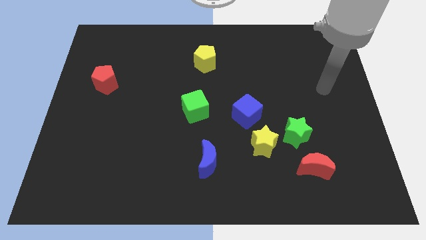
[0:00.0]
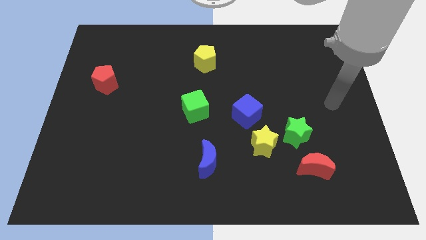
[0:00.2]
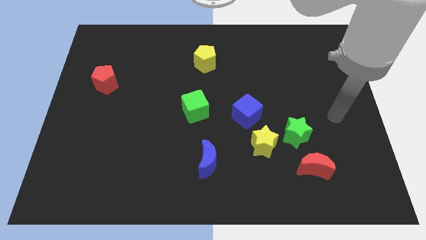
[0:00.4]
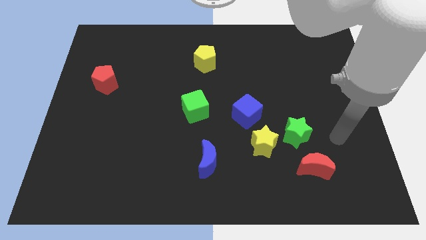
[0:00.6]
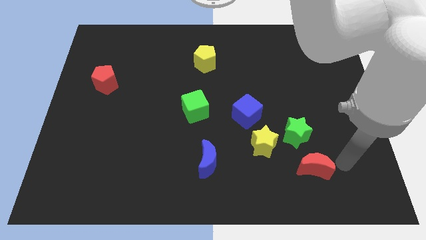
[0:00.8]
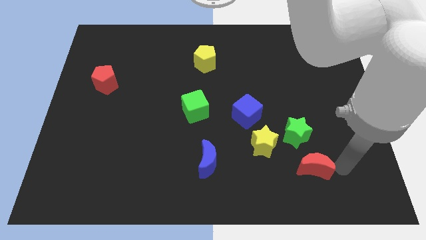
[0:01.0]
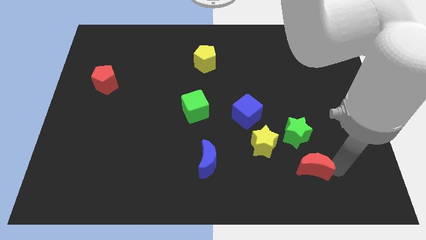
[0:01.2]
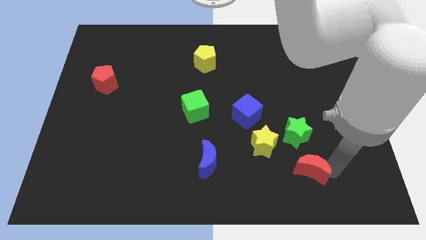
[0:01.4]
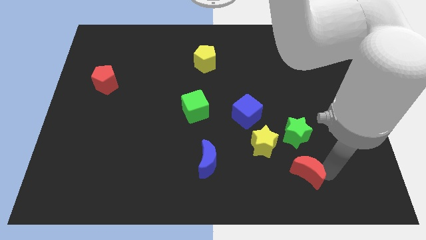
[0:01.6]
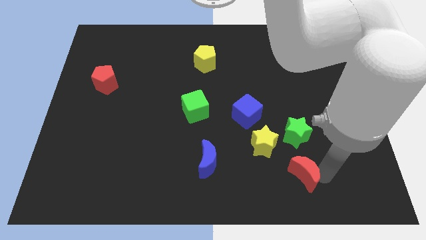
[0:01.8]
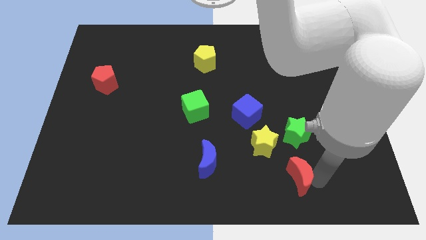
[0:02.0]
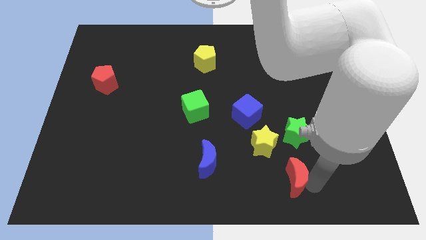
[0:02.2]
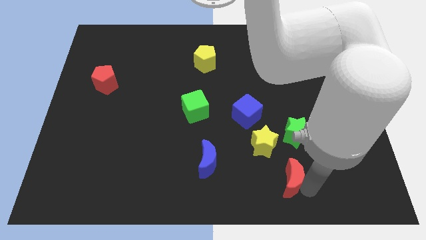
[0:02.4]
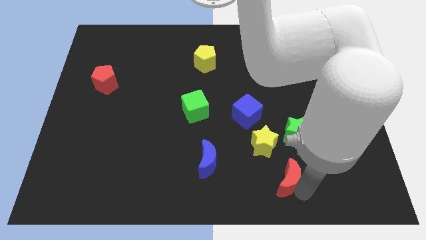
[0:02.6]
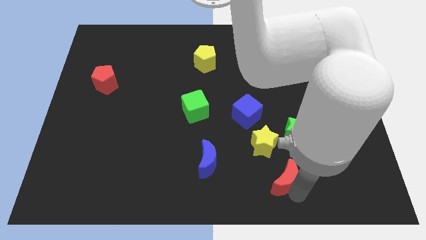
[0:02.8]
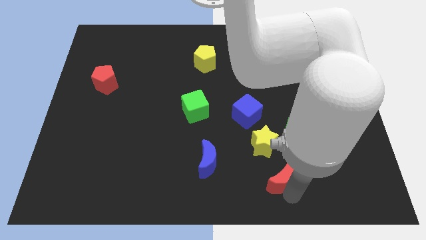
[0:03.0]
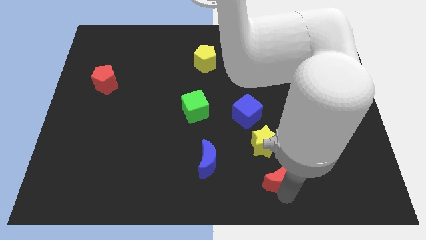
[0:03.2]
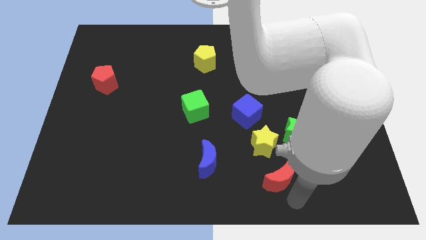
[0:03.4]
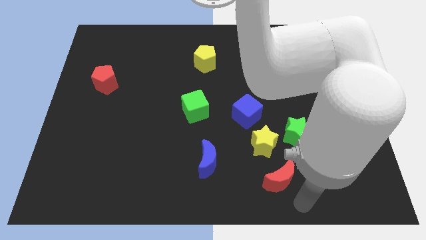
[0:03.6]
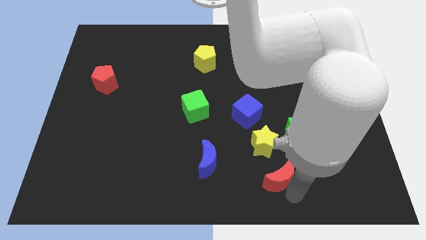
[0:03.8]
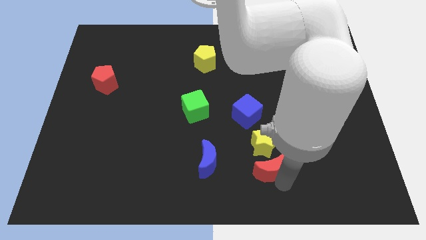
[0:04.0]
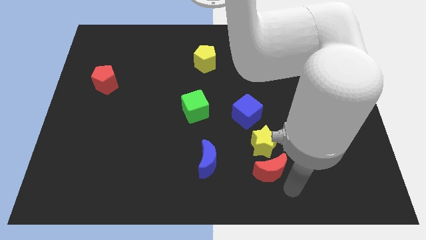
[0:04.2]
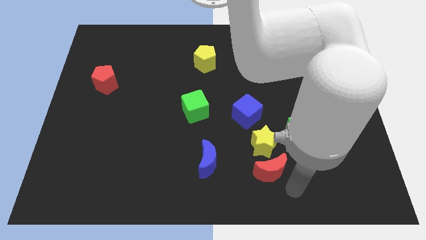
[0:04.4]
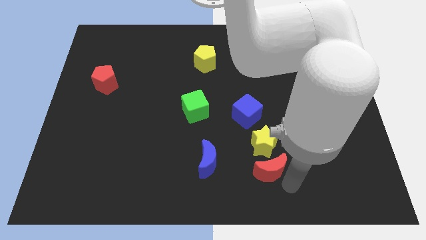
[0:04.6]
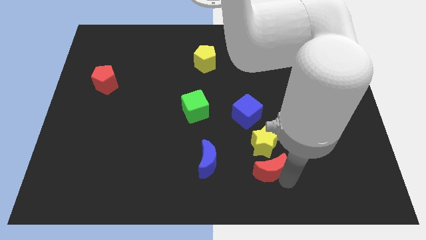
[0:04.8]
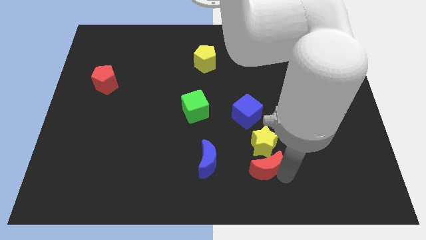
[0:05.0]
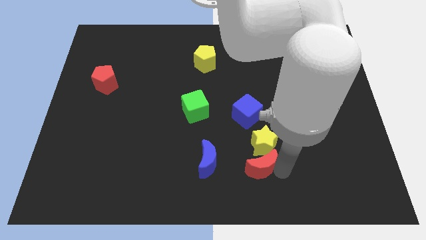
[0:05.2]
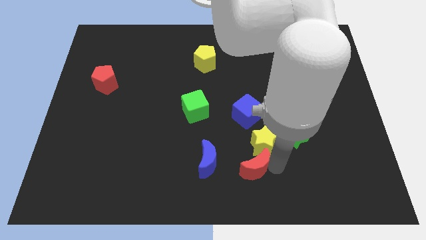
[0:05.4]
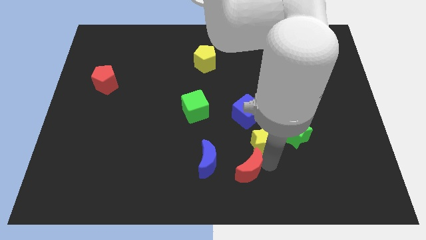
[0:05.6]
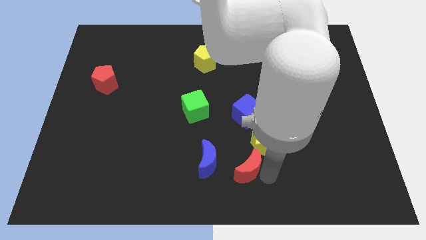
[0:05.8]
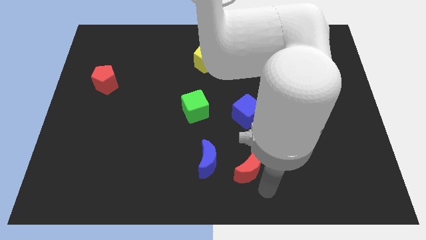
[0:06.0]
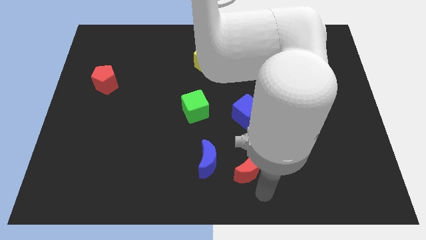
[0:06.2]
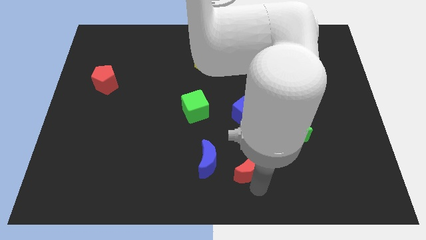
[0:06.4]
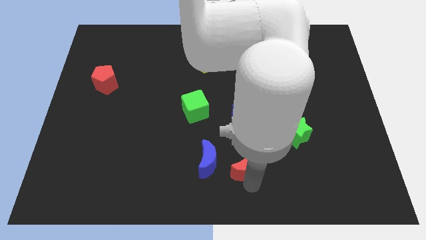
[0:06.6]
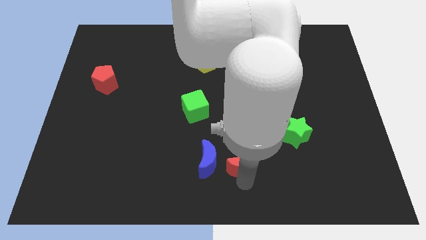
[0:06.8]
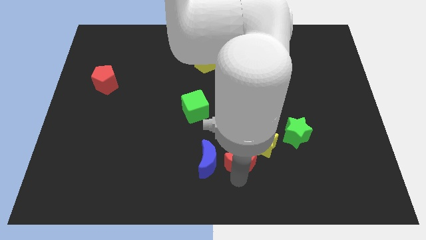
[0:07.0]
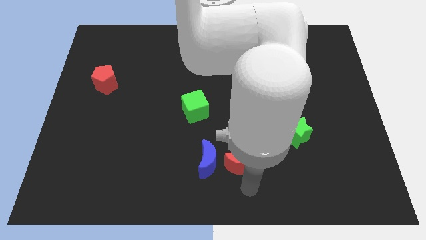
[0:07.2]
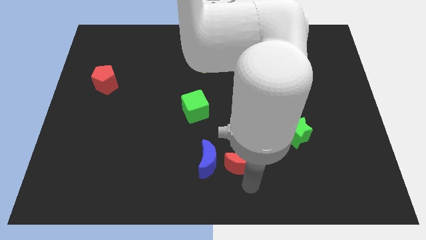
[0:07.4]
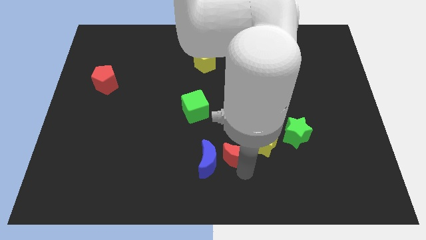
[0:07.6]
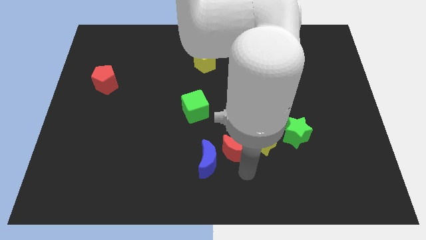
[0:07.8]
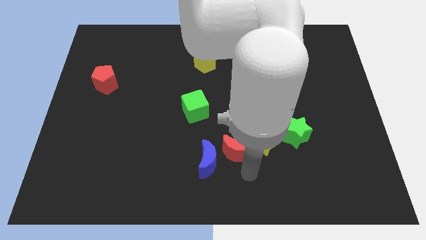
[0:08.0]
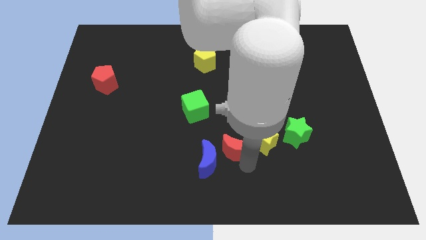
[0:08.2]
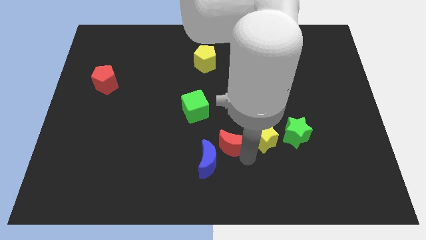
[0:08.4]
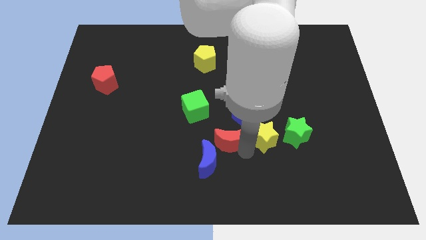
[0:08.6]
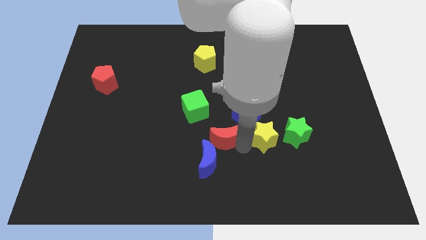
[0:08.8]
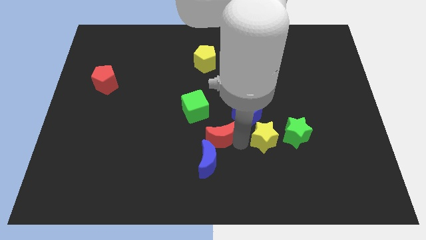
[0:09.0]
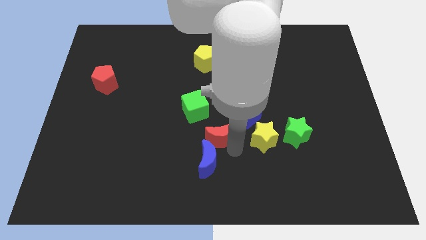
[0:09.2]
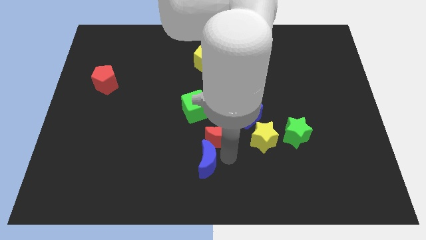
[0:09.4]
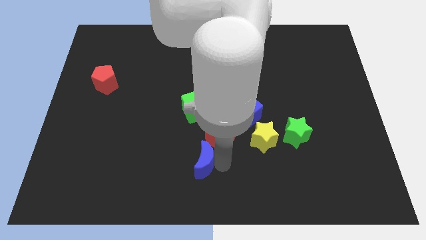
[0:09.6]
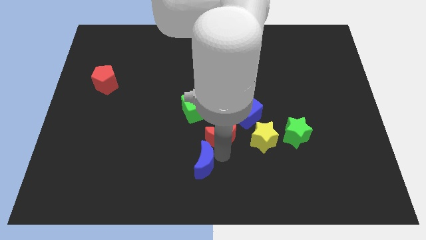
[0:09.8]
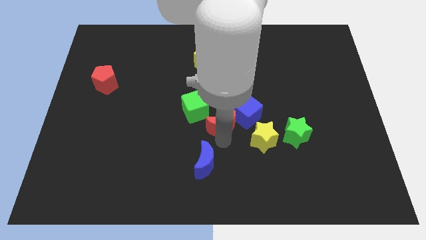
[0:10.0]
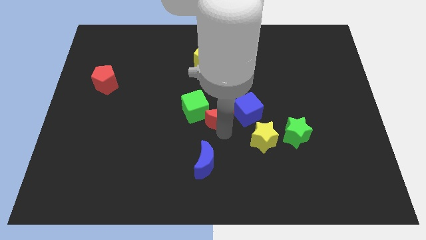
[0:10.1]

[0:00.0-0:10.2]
move the red moon upwards and then to the left

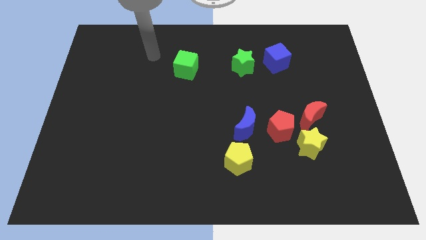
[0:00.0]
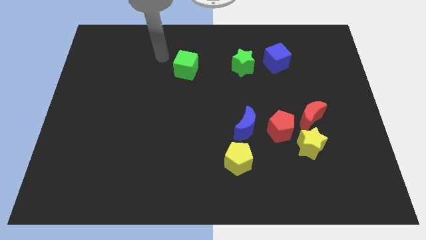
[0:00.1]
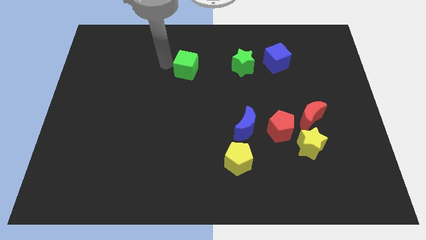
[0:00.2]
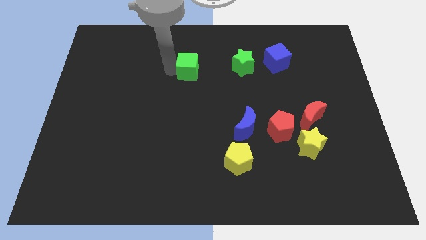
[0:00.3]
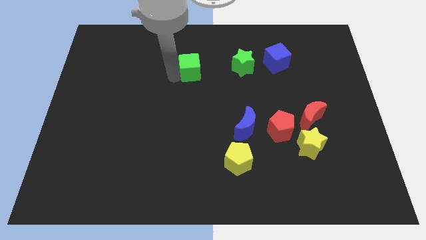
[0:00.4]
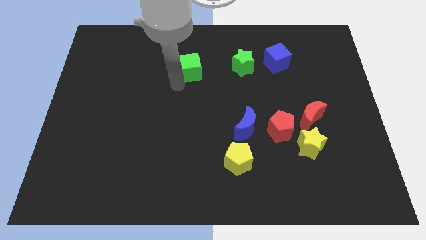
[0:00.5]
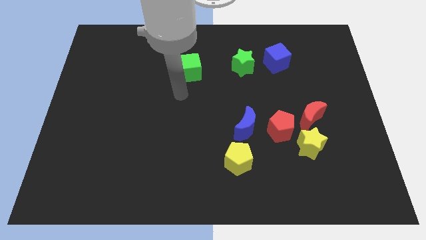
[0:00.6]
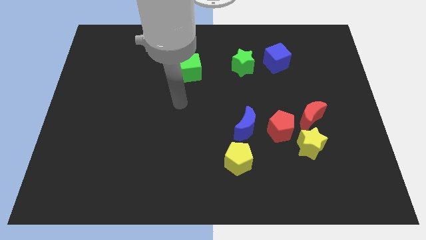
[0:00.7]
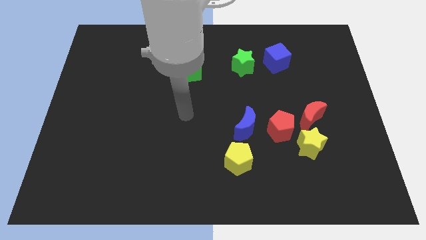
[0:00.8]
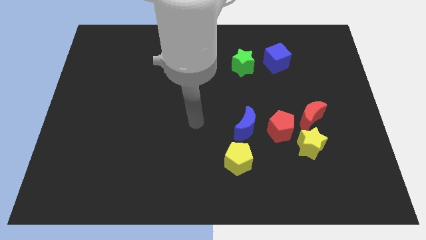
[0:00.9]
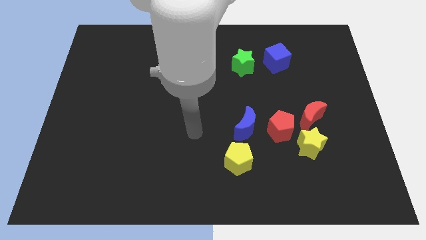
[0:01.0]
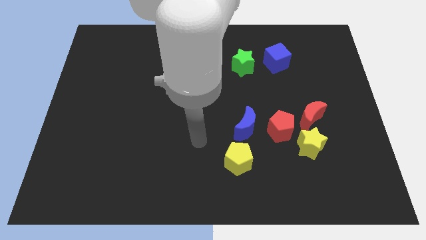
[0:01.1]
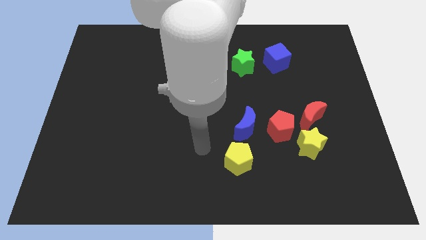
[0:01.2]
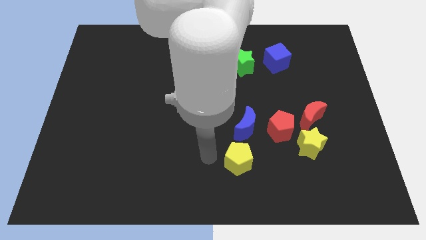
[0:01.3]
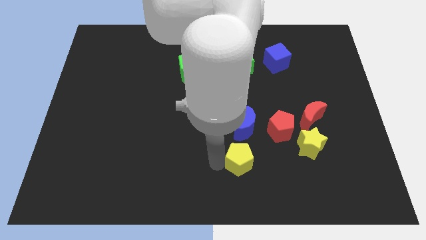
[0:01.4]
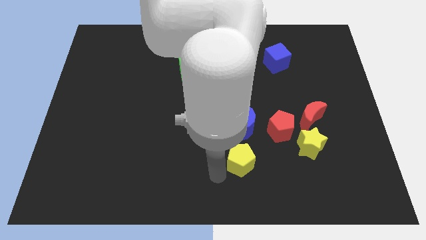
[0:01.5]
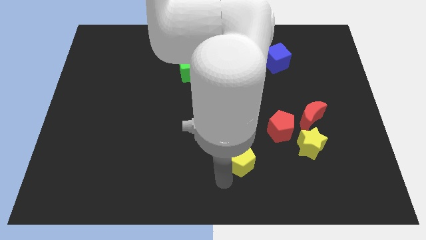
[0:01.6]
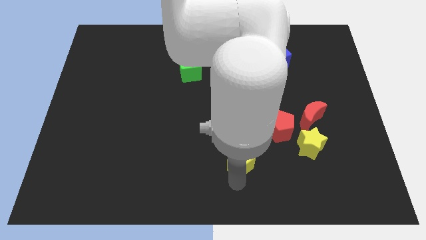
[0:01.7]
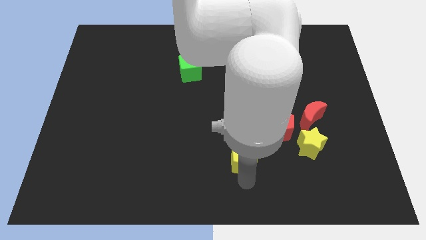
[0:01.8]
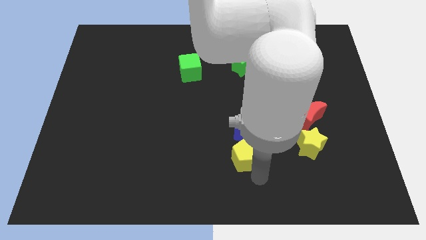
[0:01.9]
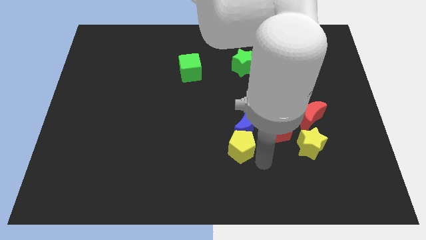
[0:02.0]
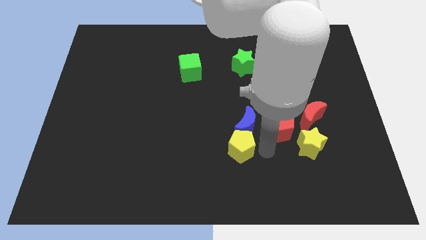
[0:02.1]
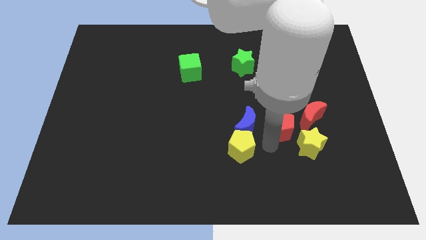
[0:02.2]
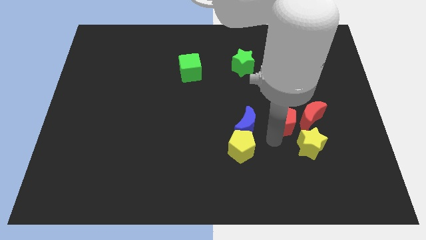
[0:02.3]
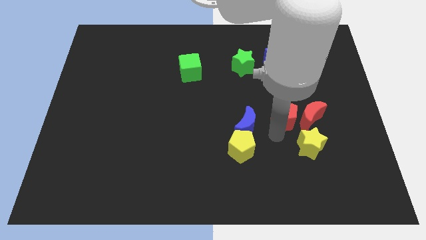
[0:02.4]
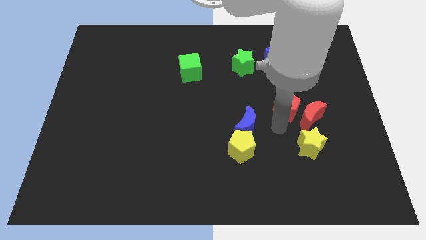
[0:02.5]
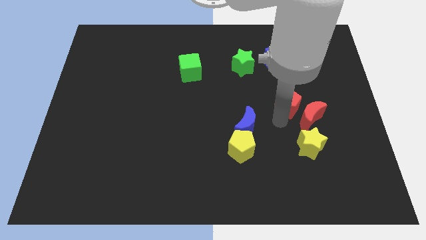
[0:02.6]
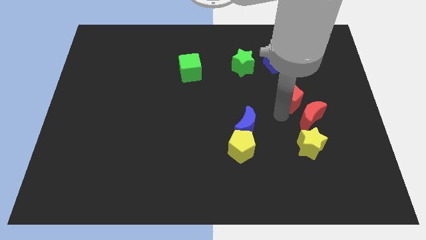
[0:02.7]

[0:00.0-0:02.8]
move the red pentagon up and then to the right a little
